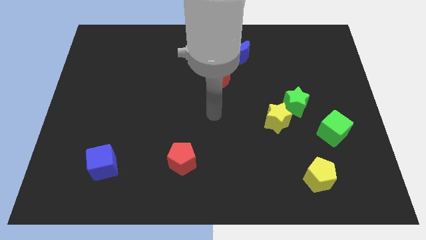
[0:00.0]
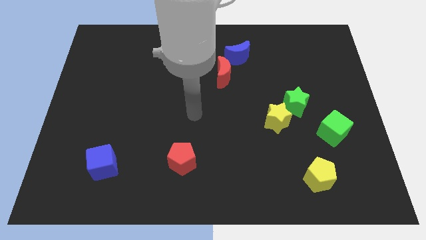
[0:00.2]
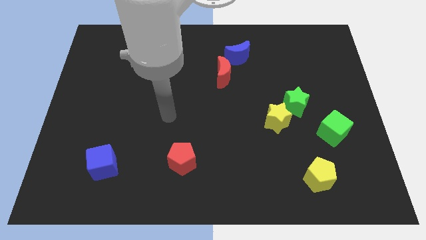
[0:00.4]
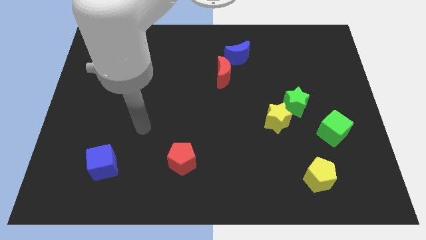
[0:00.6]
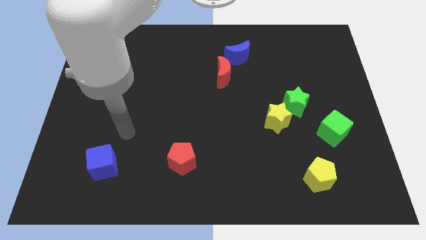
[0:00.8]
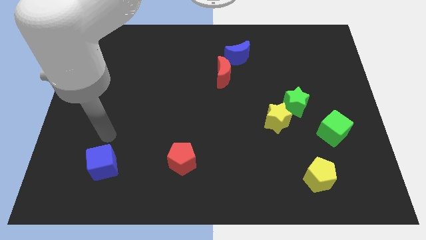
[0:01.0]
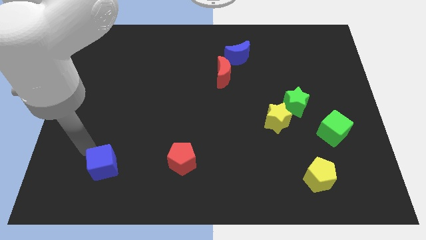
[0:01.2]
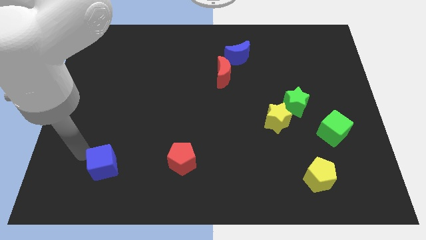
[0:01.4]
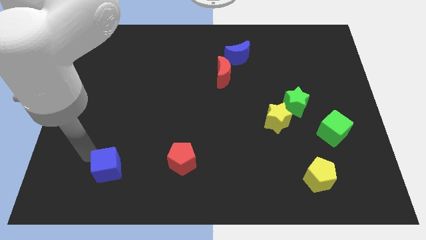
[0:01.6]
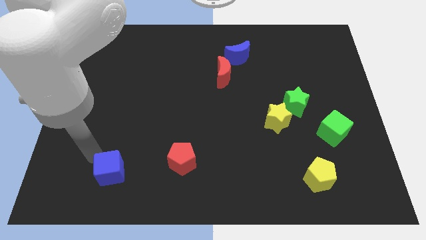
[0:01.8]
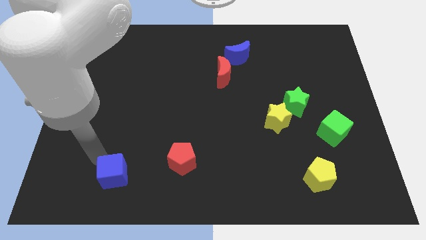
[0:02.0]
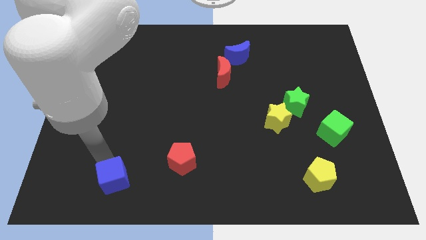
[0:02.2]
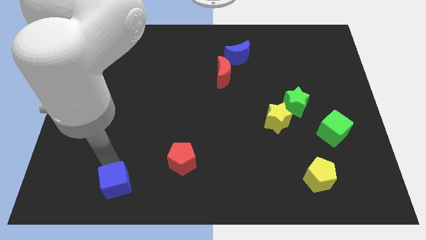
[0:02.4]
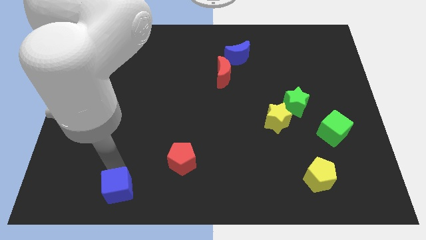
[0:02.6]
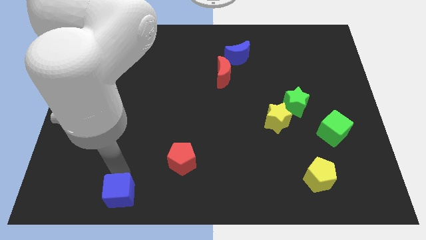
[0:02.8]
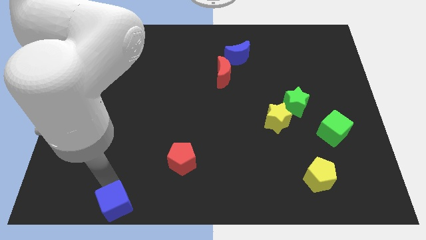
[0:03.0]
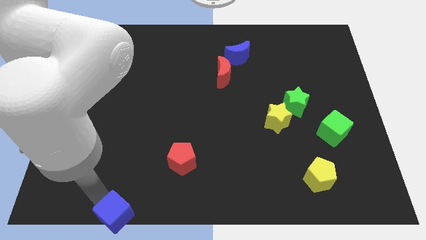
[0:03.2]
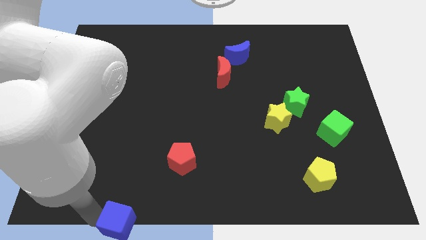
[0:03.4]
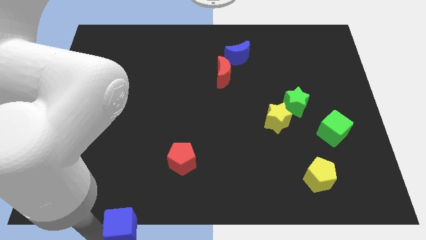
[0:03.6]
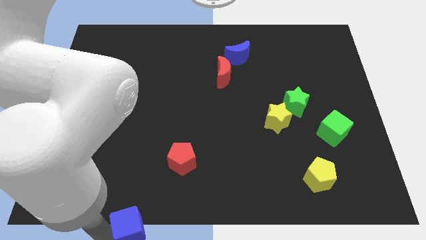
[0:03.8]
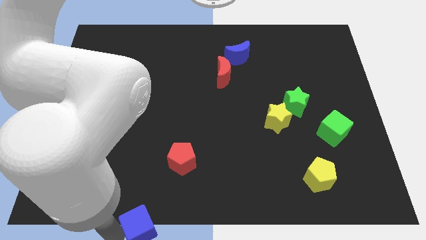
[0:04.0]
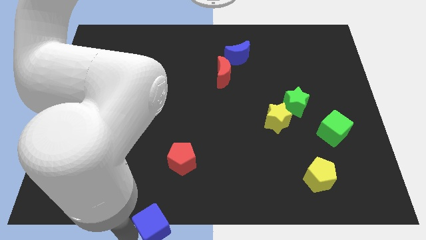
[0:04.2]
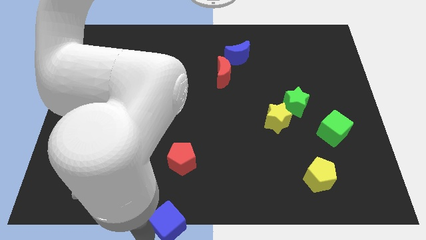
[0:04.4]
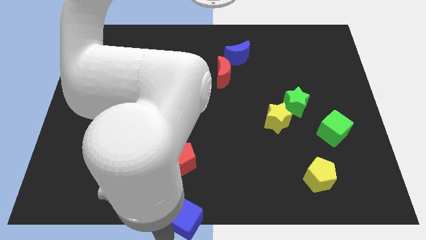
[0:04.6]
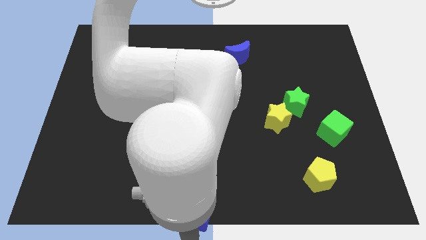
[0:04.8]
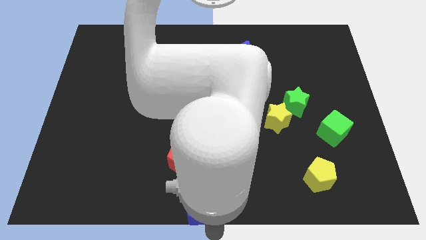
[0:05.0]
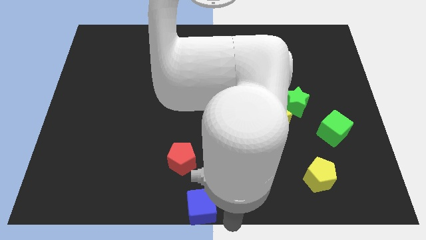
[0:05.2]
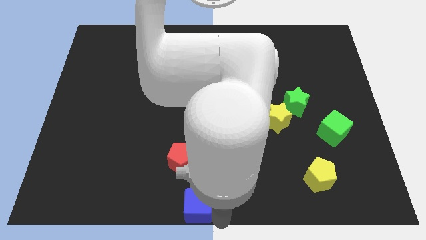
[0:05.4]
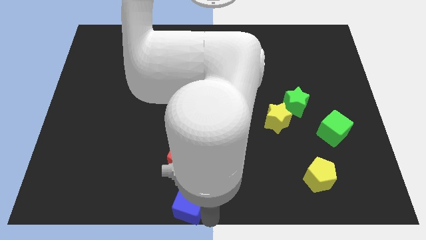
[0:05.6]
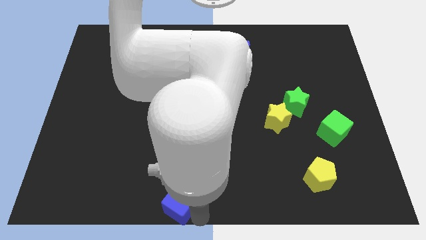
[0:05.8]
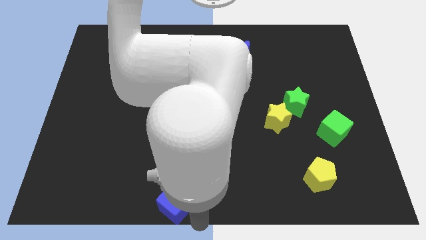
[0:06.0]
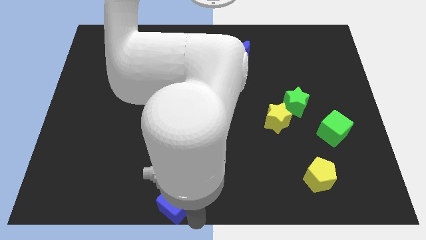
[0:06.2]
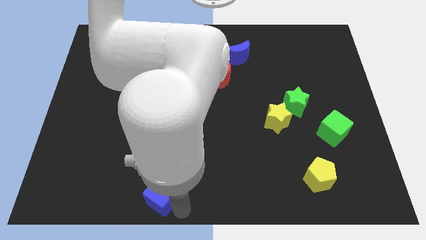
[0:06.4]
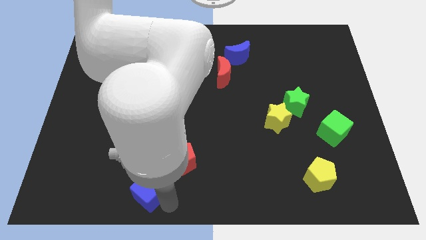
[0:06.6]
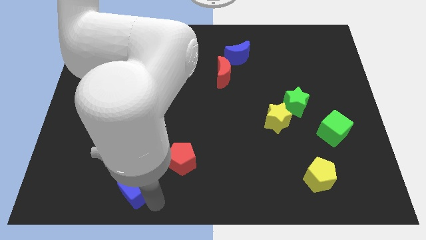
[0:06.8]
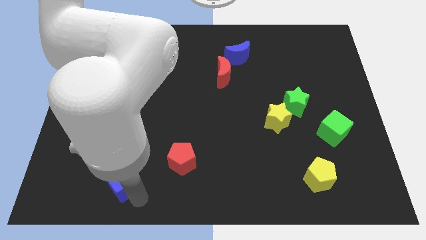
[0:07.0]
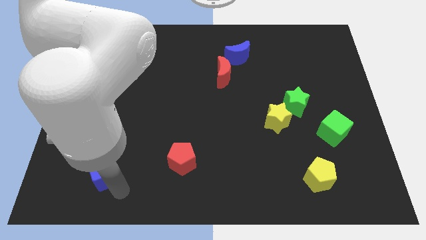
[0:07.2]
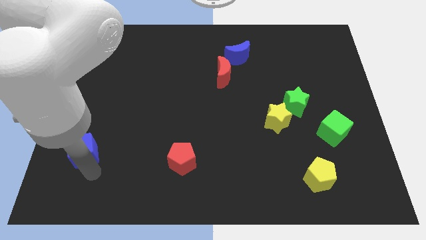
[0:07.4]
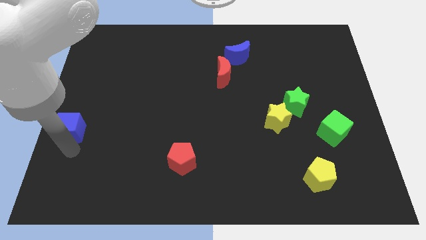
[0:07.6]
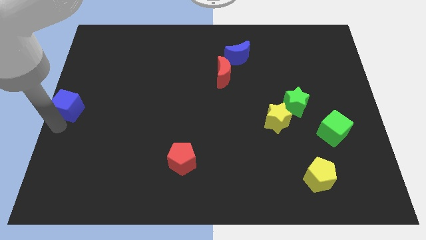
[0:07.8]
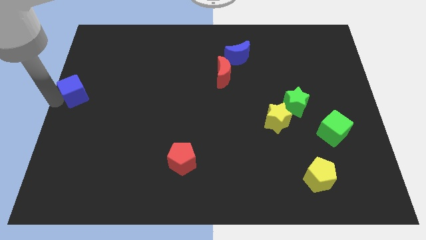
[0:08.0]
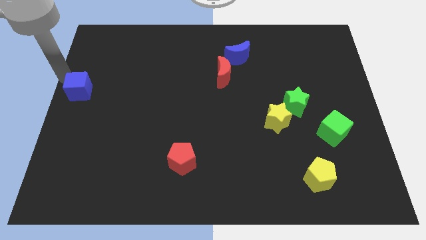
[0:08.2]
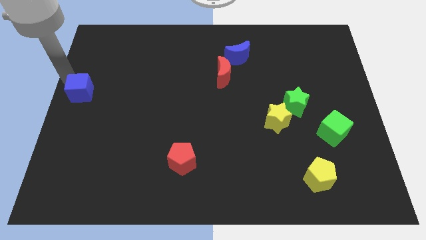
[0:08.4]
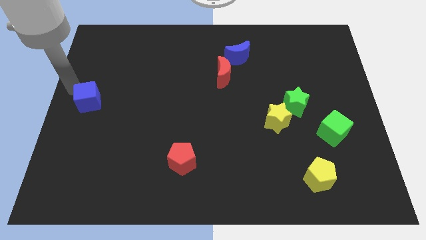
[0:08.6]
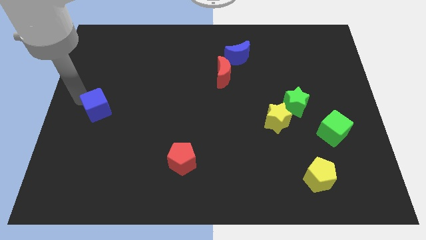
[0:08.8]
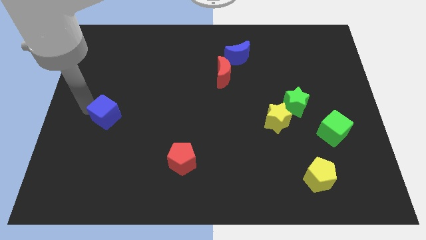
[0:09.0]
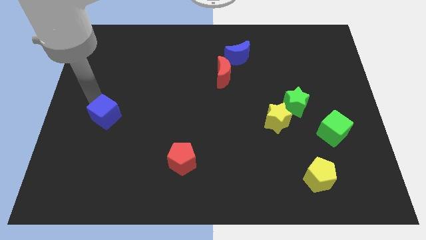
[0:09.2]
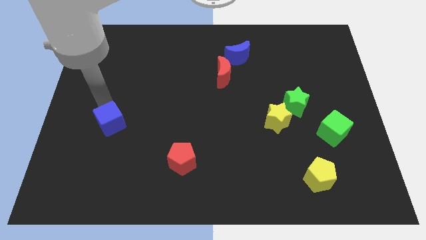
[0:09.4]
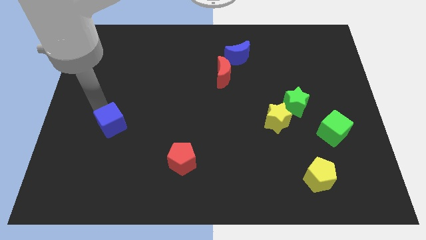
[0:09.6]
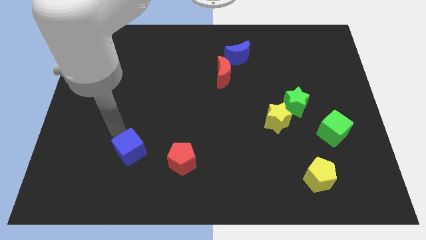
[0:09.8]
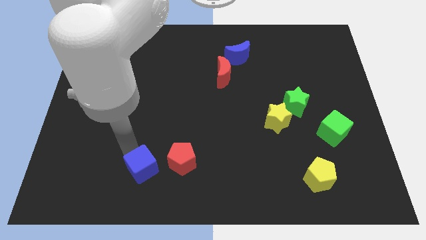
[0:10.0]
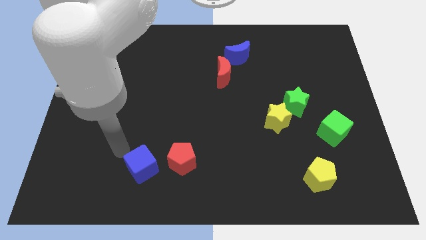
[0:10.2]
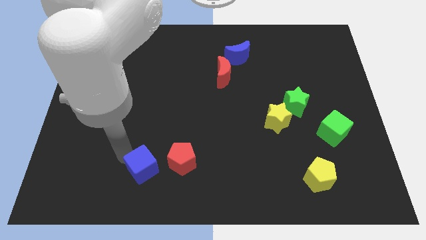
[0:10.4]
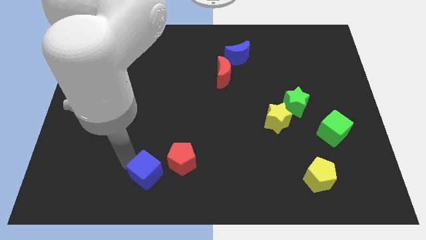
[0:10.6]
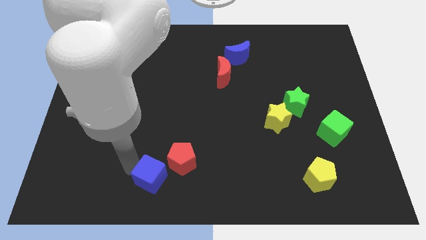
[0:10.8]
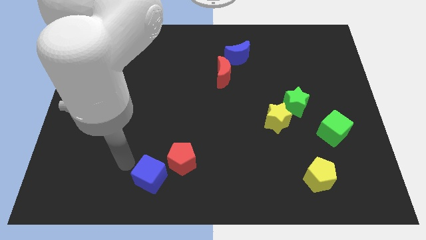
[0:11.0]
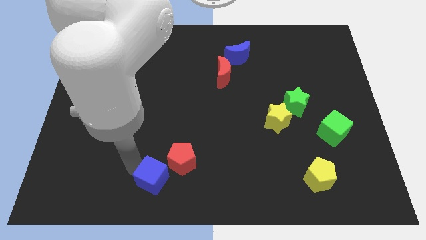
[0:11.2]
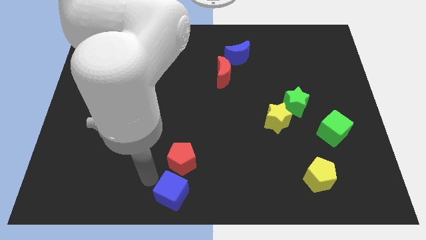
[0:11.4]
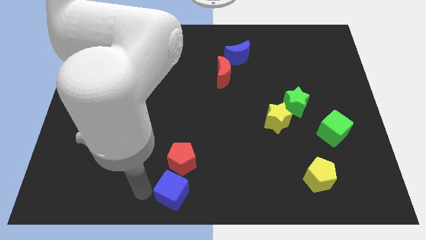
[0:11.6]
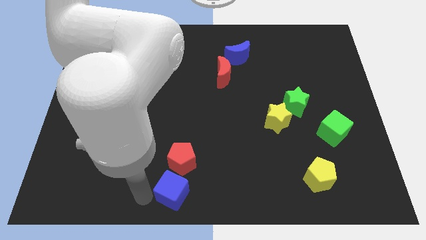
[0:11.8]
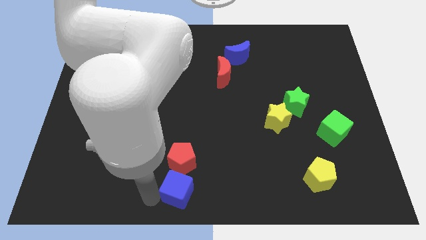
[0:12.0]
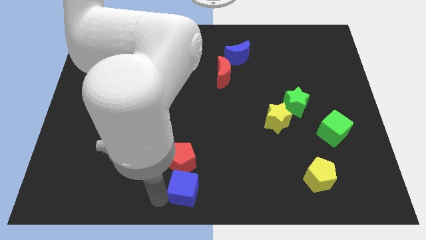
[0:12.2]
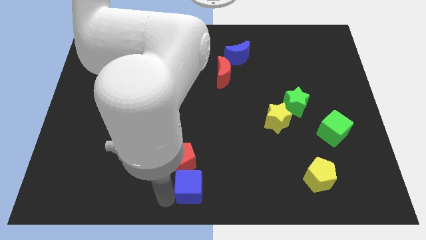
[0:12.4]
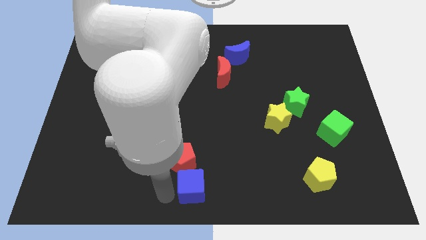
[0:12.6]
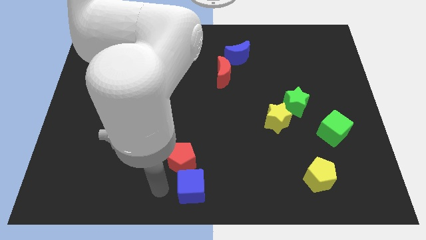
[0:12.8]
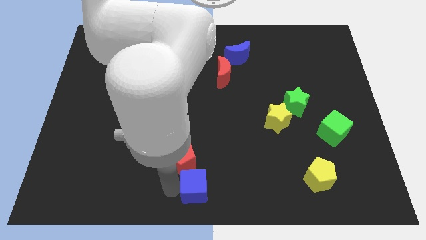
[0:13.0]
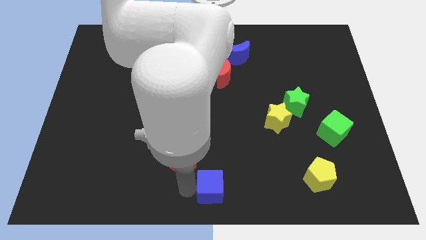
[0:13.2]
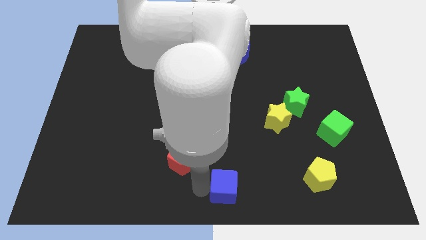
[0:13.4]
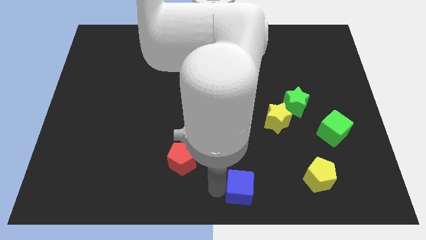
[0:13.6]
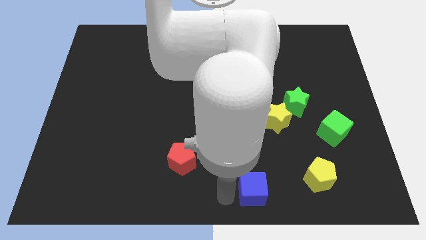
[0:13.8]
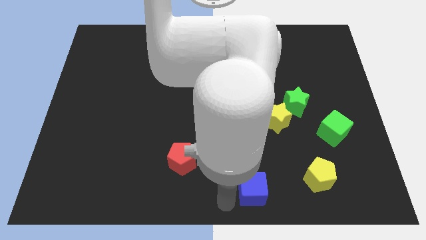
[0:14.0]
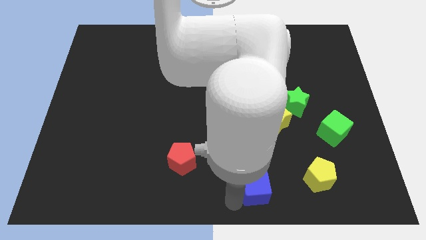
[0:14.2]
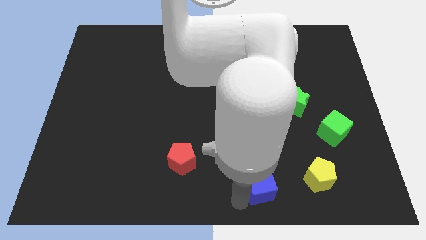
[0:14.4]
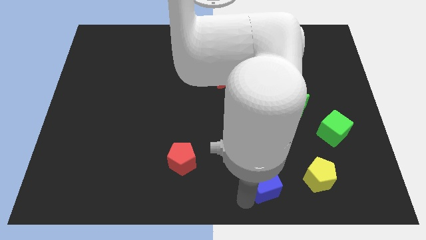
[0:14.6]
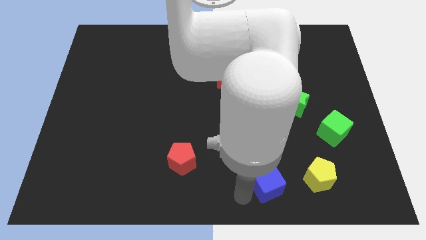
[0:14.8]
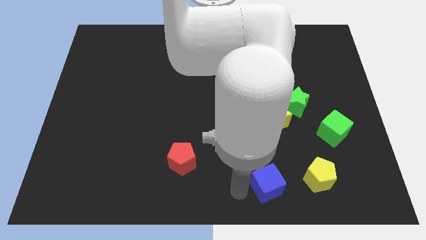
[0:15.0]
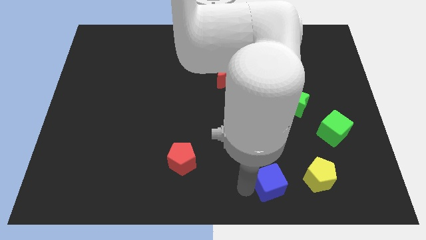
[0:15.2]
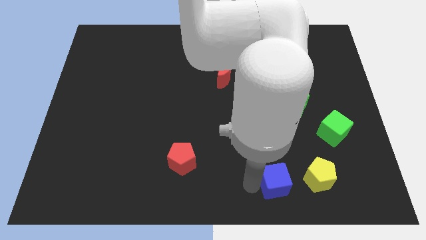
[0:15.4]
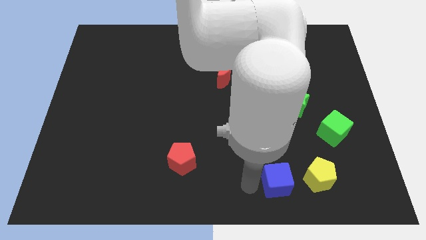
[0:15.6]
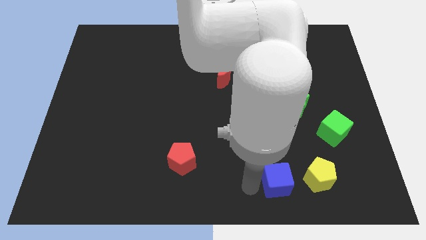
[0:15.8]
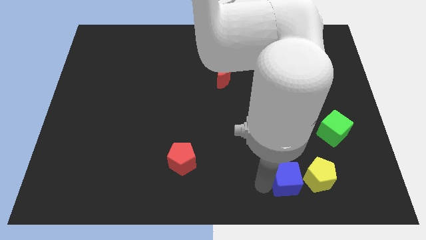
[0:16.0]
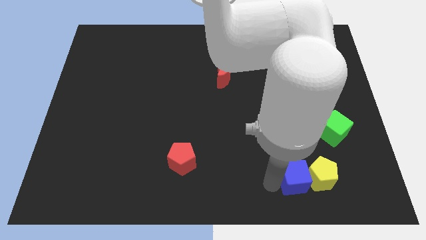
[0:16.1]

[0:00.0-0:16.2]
move the blue cube next to the yellow pentagon
